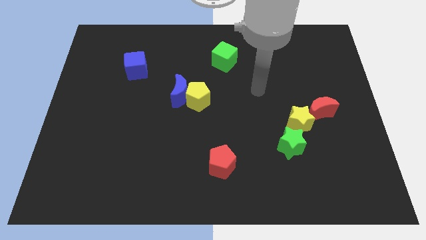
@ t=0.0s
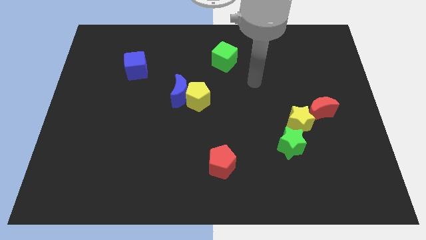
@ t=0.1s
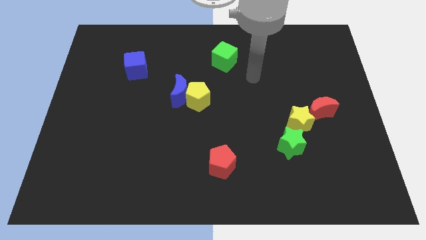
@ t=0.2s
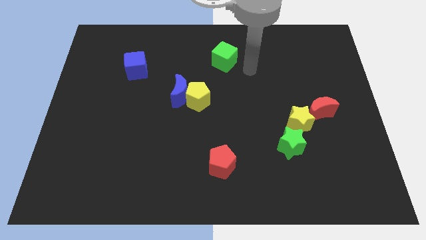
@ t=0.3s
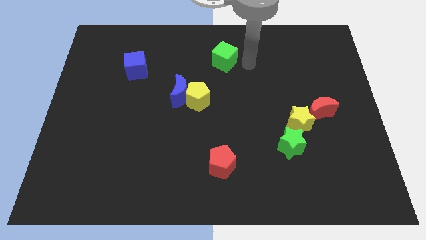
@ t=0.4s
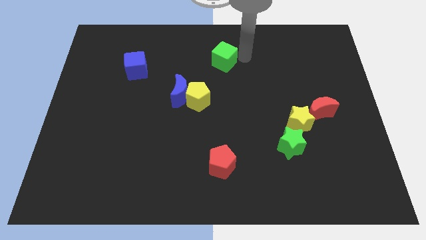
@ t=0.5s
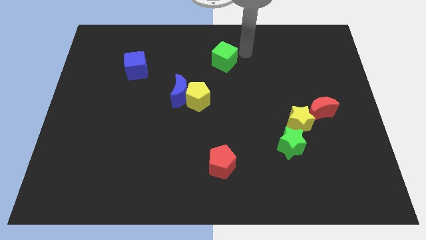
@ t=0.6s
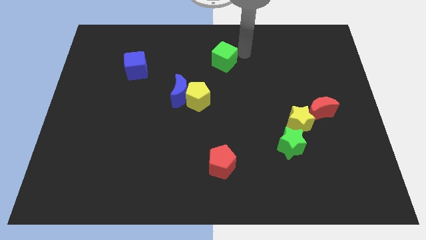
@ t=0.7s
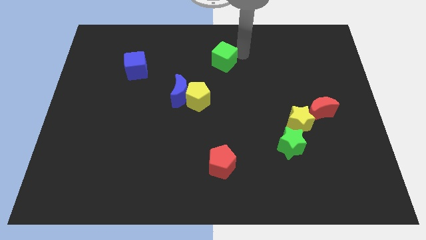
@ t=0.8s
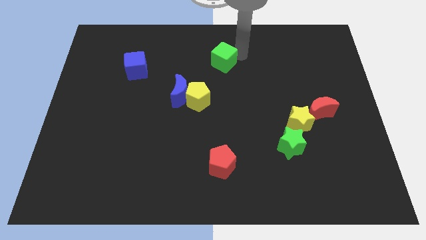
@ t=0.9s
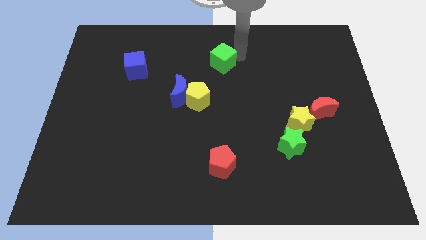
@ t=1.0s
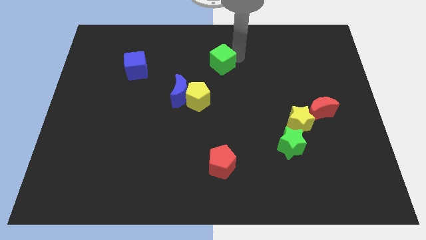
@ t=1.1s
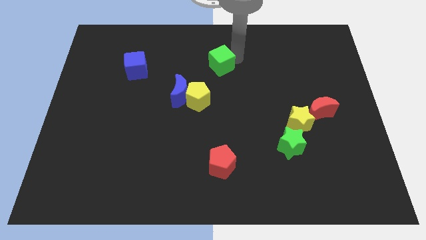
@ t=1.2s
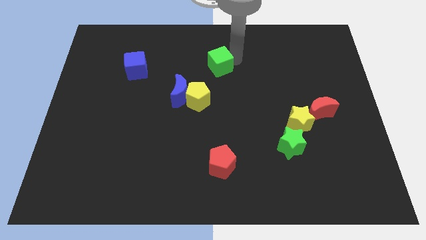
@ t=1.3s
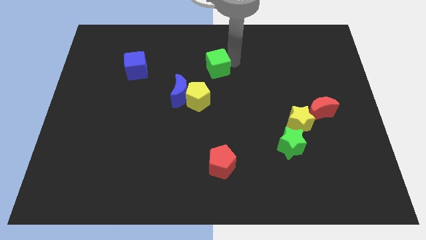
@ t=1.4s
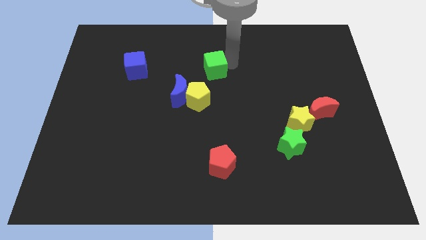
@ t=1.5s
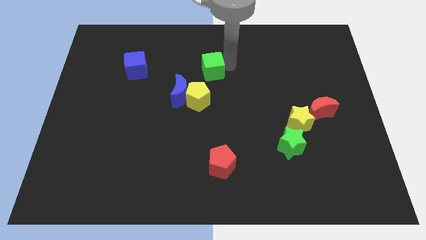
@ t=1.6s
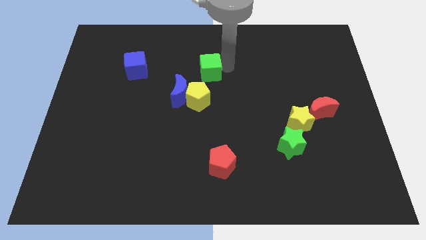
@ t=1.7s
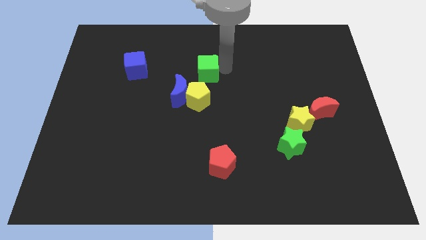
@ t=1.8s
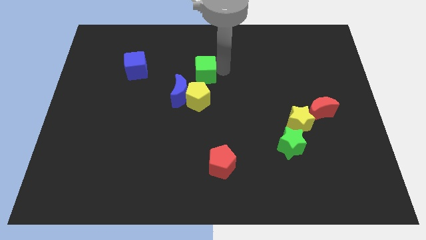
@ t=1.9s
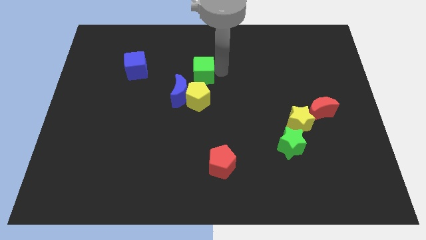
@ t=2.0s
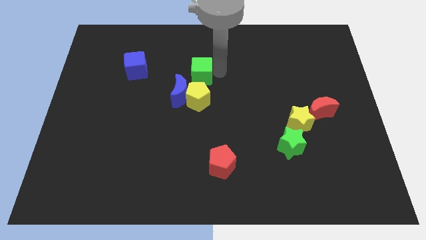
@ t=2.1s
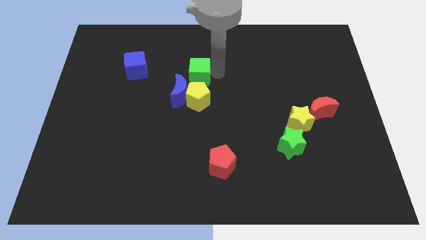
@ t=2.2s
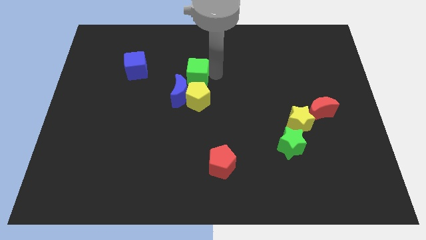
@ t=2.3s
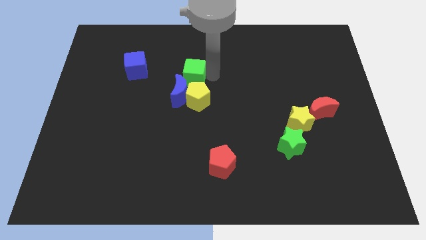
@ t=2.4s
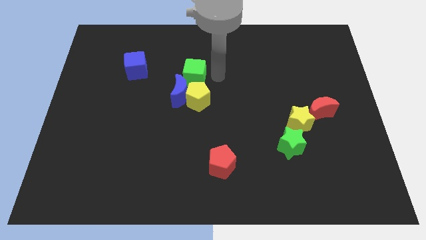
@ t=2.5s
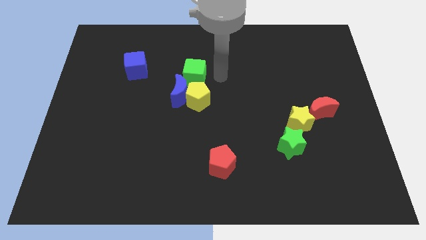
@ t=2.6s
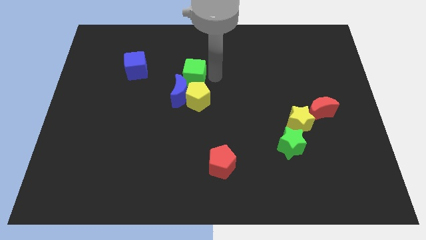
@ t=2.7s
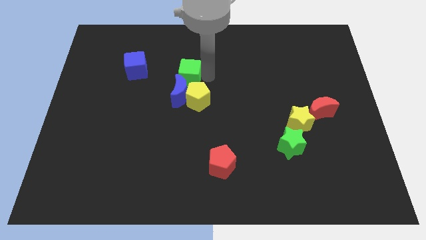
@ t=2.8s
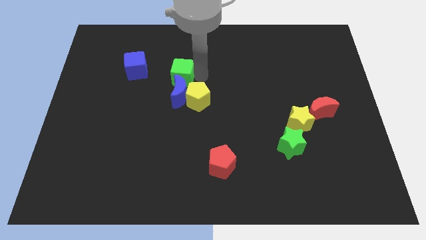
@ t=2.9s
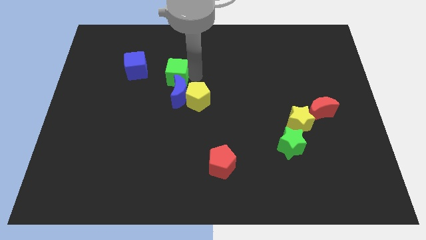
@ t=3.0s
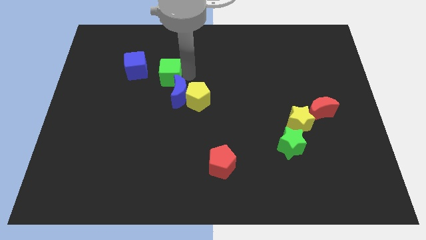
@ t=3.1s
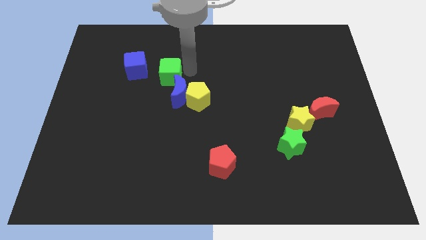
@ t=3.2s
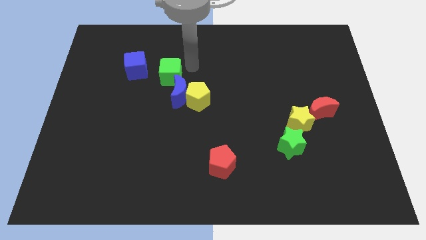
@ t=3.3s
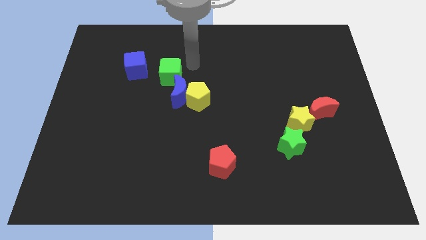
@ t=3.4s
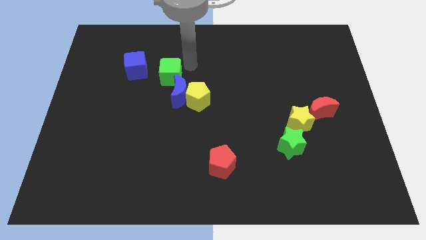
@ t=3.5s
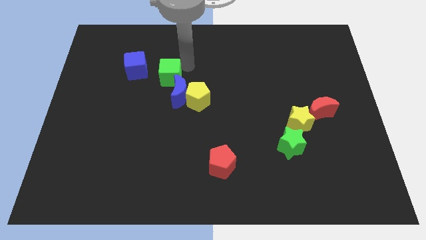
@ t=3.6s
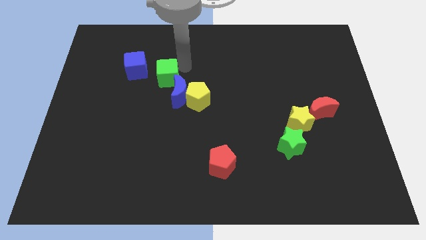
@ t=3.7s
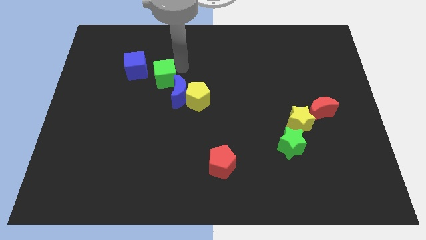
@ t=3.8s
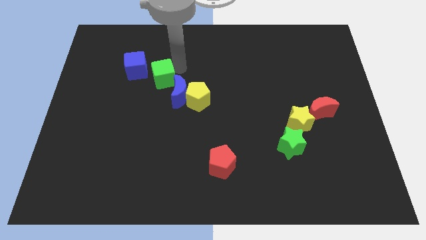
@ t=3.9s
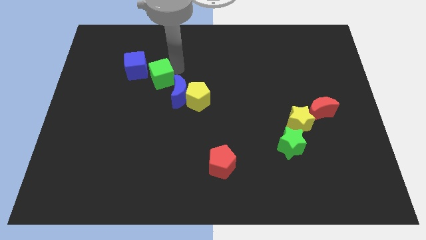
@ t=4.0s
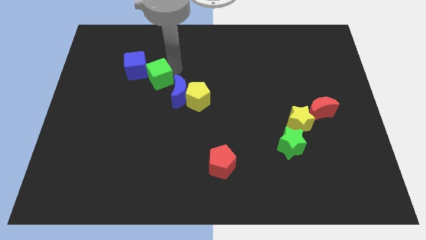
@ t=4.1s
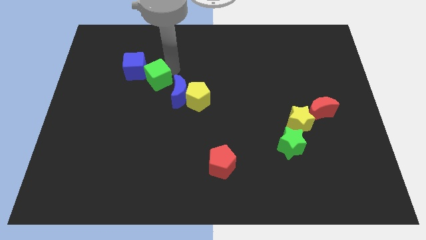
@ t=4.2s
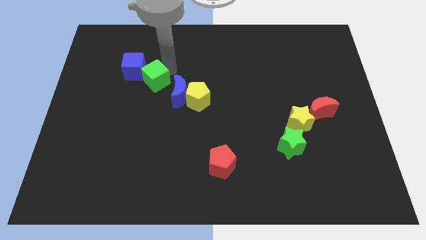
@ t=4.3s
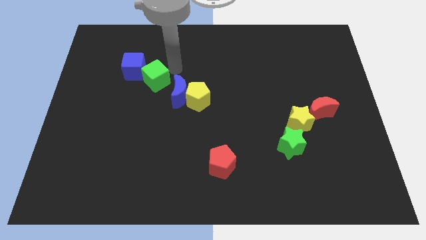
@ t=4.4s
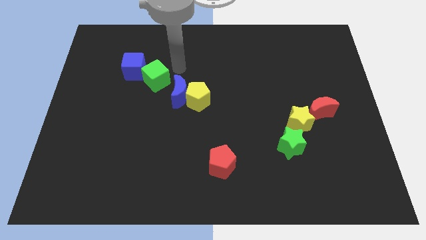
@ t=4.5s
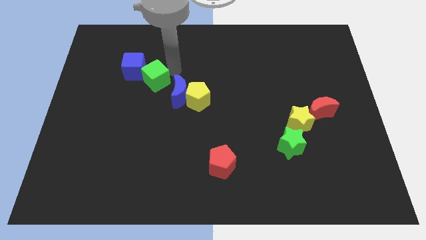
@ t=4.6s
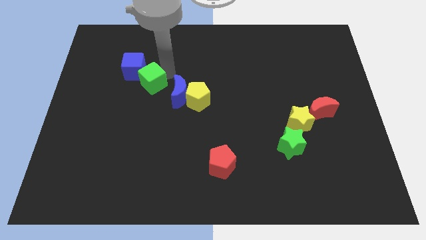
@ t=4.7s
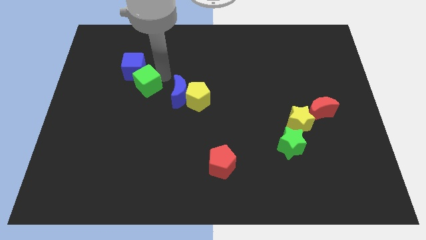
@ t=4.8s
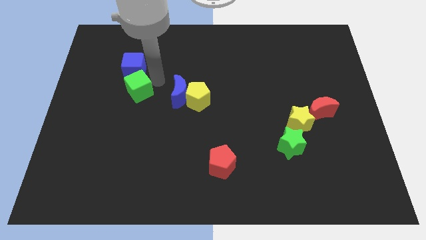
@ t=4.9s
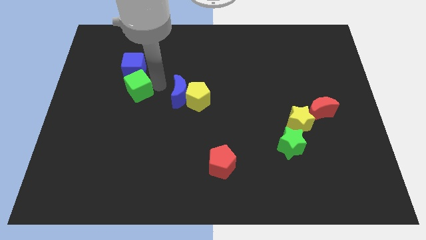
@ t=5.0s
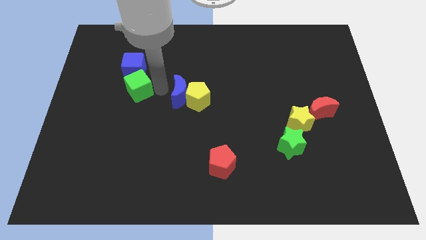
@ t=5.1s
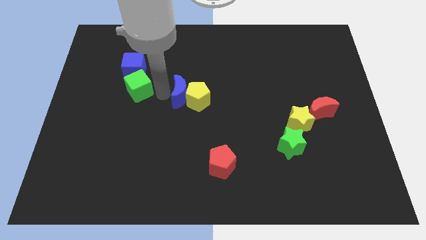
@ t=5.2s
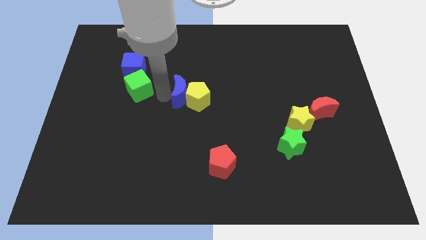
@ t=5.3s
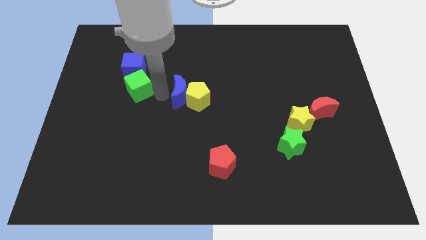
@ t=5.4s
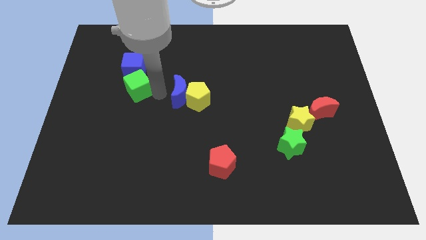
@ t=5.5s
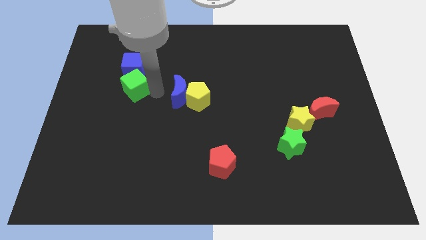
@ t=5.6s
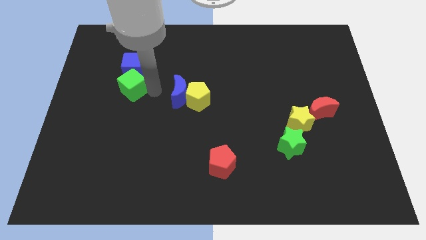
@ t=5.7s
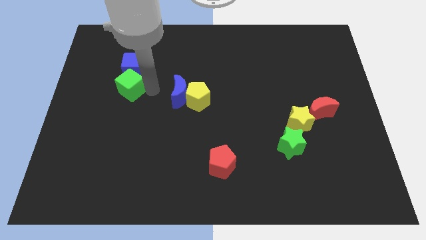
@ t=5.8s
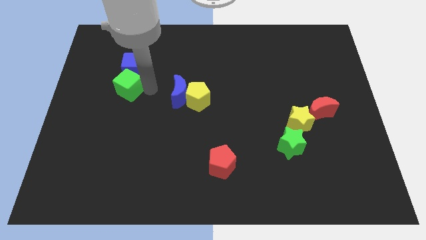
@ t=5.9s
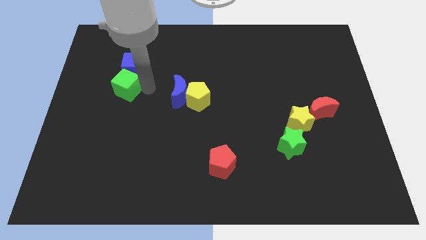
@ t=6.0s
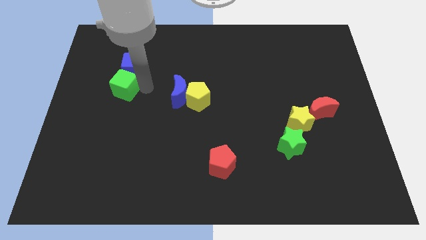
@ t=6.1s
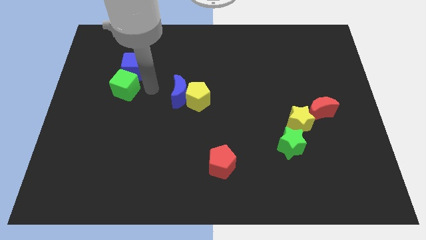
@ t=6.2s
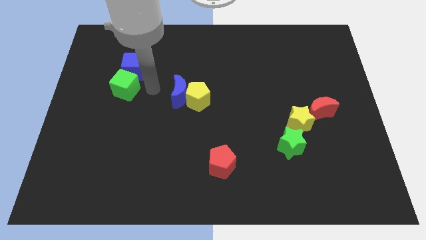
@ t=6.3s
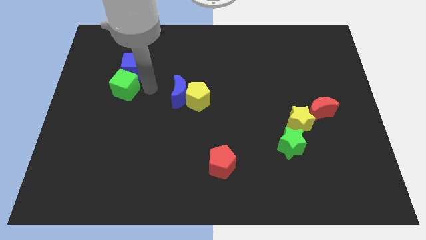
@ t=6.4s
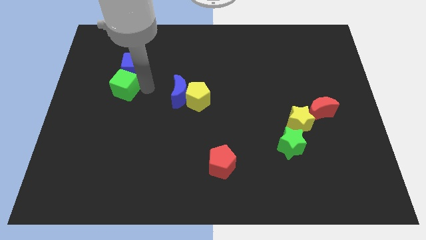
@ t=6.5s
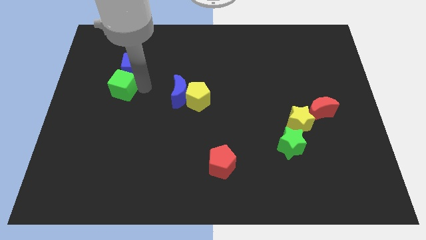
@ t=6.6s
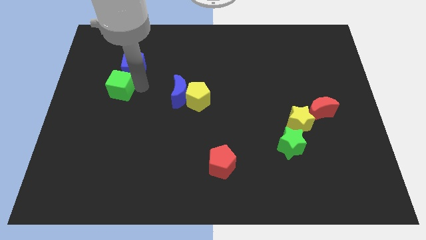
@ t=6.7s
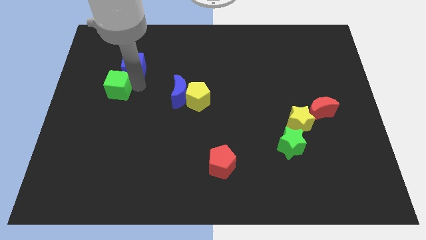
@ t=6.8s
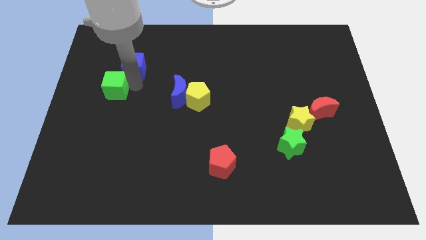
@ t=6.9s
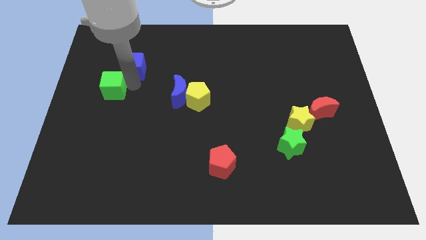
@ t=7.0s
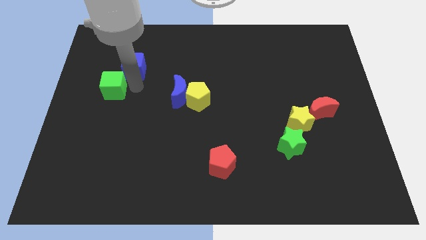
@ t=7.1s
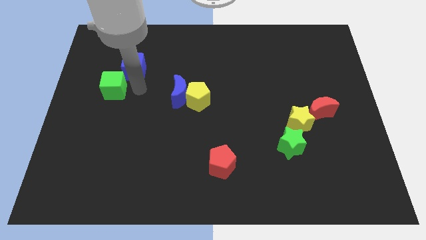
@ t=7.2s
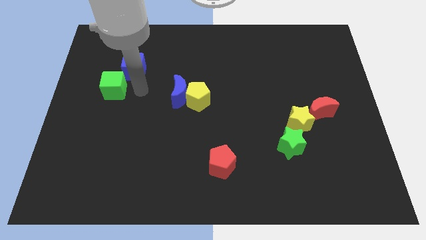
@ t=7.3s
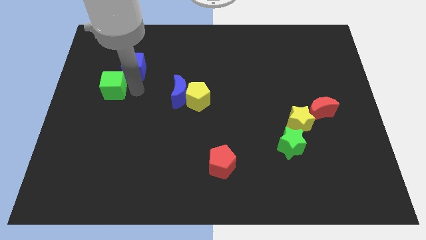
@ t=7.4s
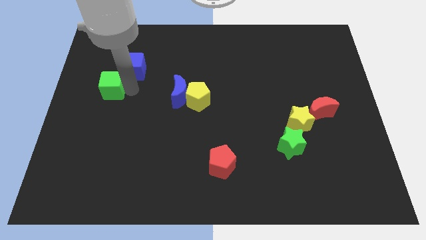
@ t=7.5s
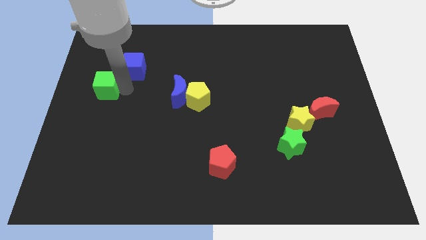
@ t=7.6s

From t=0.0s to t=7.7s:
push the green cube to the left side
